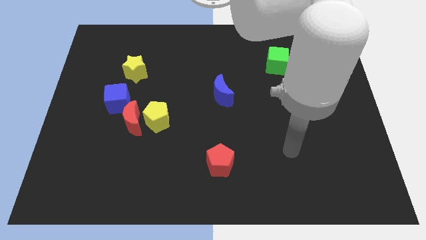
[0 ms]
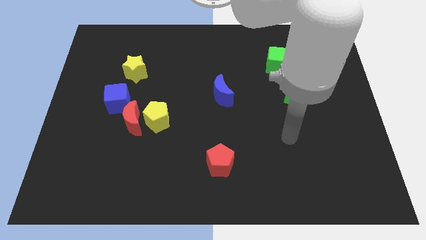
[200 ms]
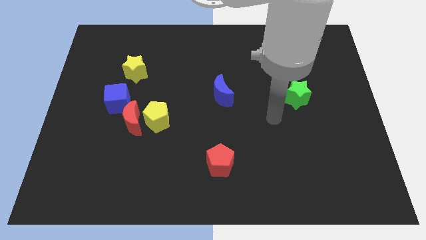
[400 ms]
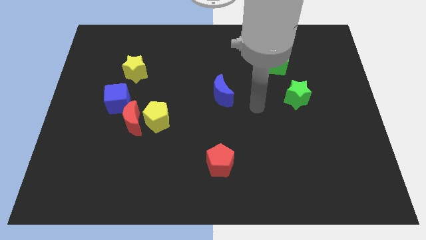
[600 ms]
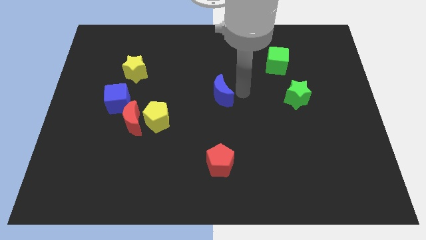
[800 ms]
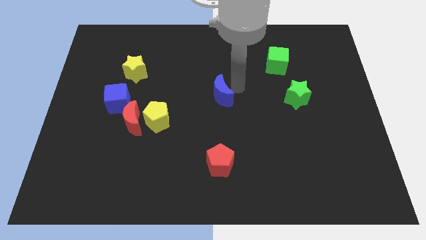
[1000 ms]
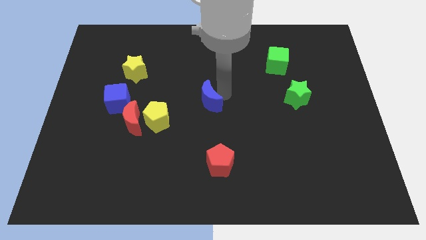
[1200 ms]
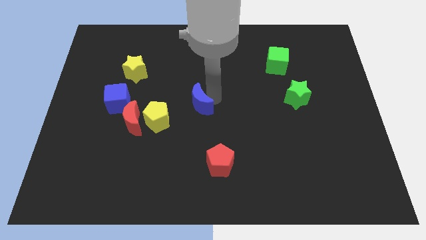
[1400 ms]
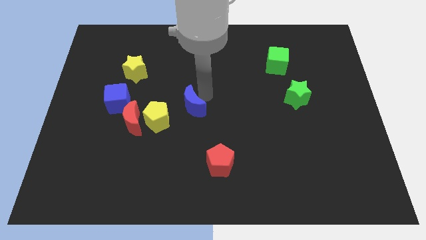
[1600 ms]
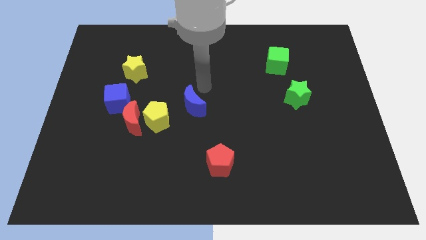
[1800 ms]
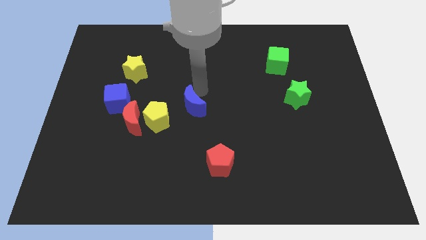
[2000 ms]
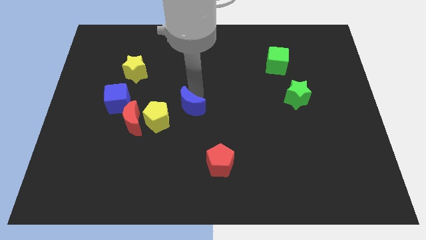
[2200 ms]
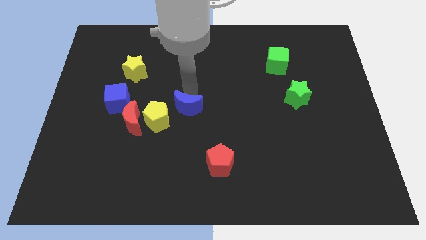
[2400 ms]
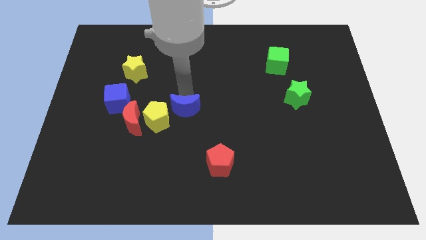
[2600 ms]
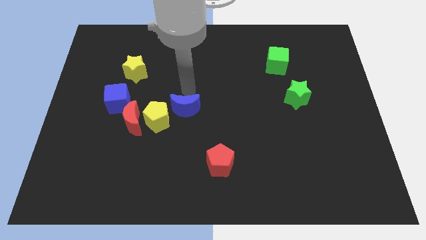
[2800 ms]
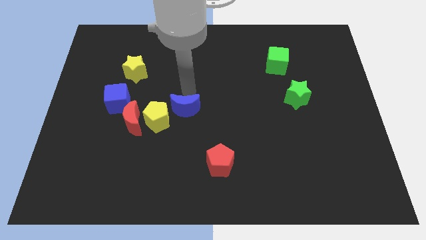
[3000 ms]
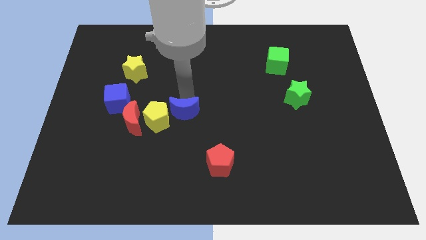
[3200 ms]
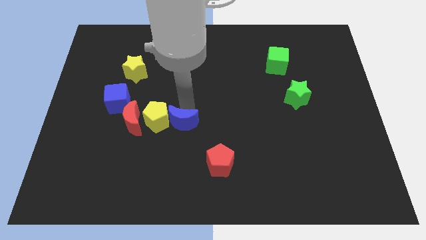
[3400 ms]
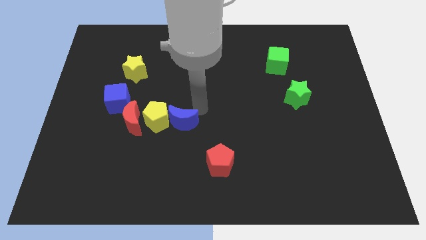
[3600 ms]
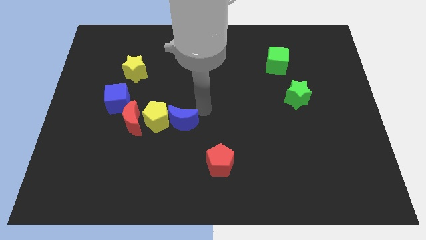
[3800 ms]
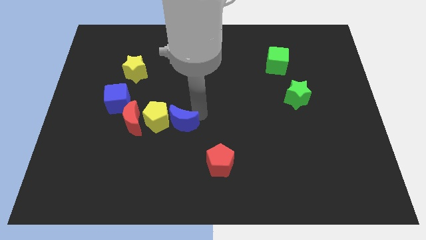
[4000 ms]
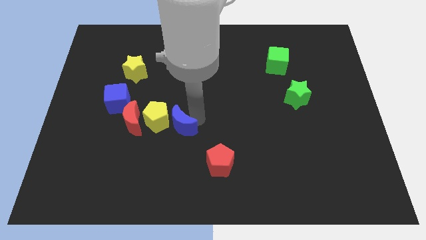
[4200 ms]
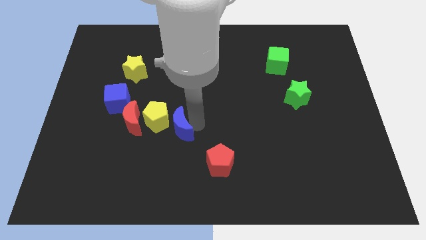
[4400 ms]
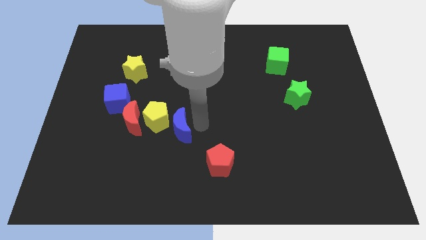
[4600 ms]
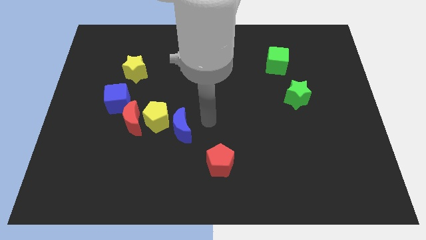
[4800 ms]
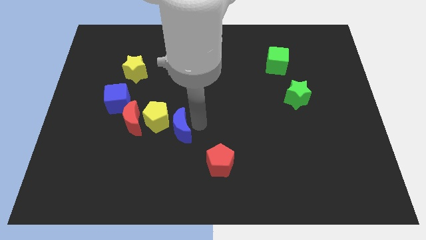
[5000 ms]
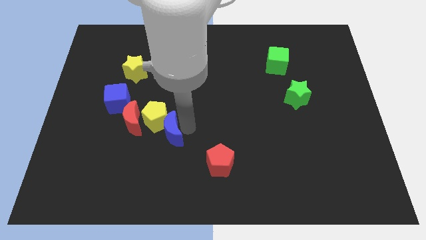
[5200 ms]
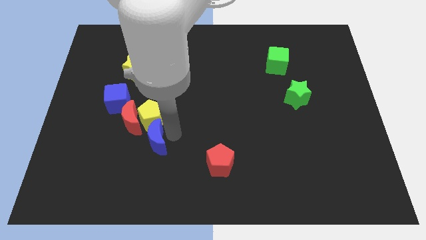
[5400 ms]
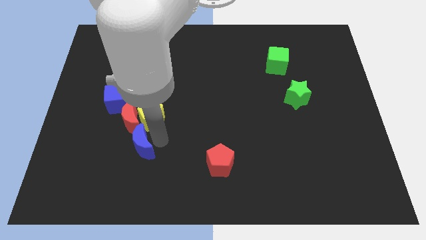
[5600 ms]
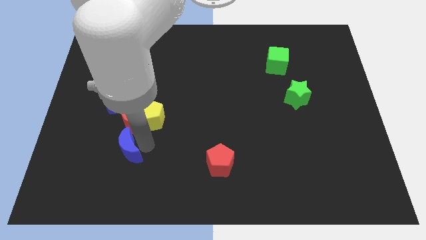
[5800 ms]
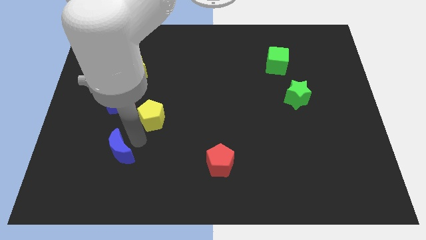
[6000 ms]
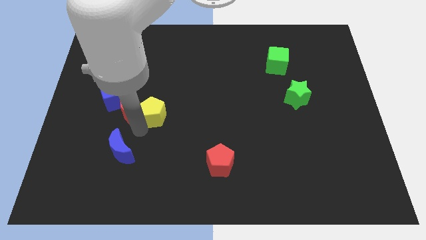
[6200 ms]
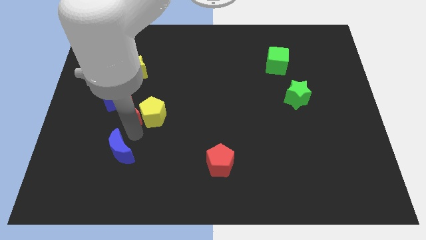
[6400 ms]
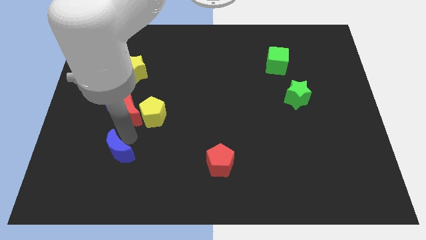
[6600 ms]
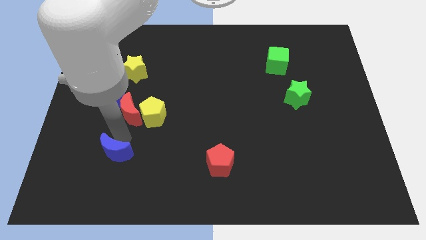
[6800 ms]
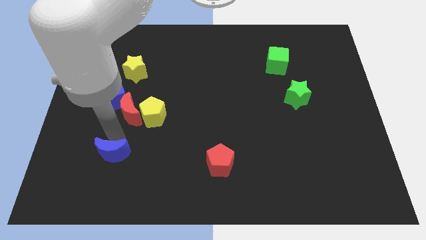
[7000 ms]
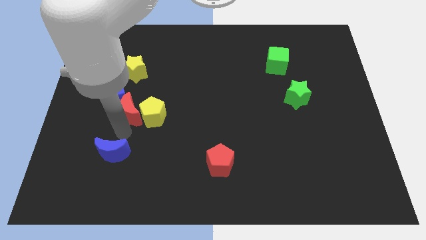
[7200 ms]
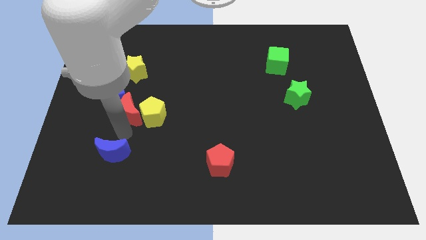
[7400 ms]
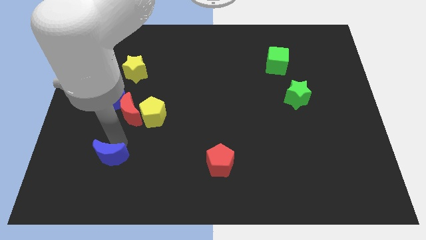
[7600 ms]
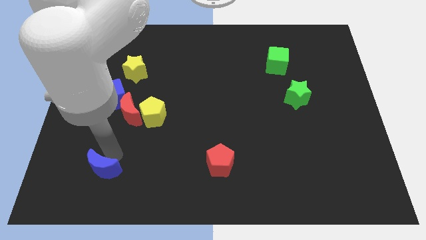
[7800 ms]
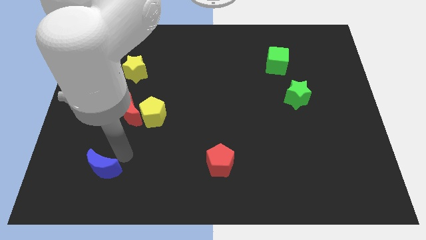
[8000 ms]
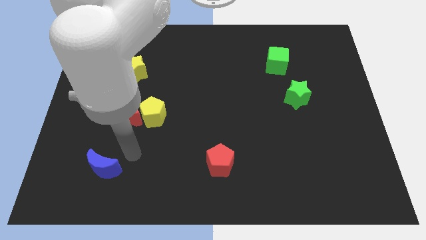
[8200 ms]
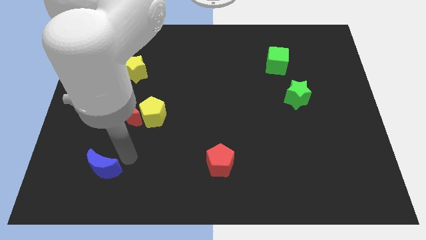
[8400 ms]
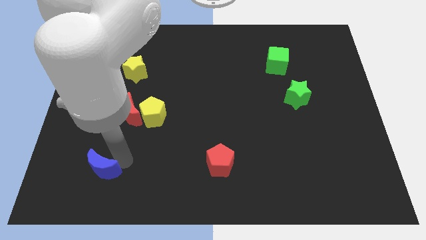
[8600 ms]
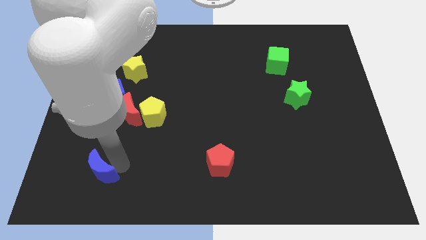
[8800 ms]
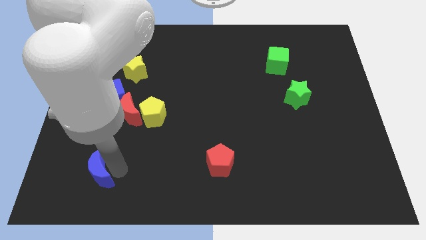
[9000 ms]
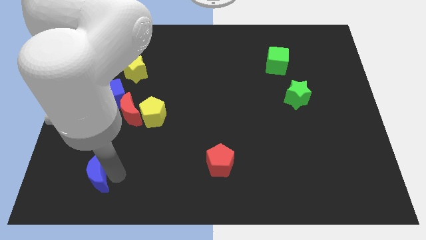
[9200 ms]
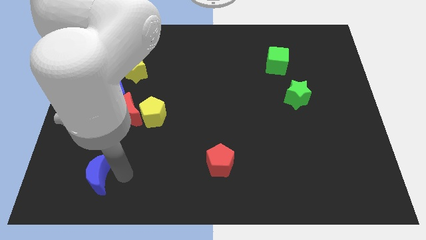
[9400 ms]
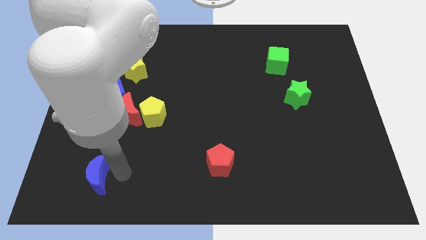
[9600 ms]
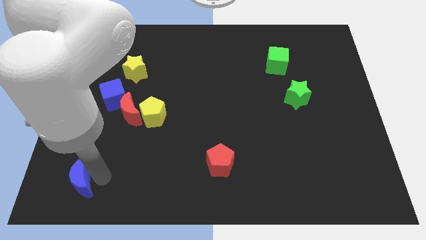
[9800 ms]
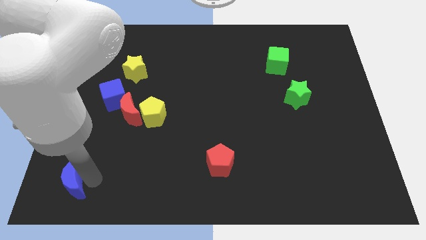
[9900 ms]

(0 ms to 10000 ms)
move the blue moon to the bottom left of the board

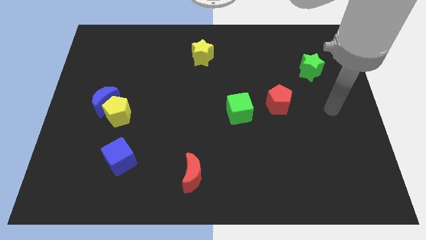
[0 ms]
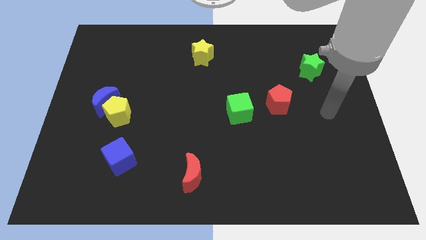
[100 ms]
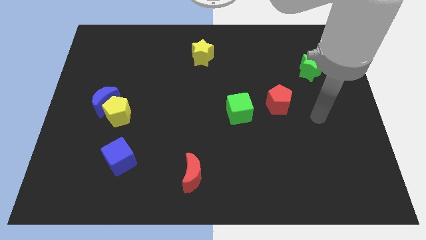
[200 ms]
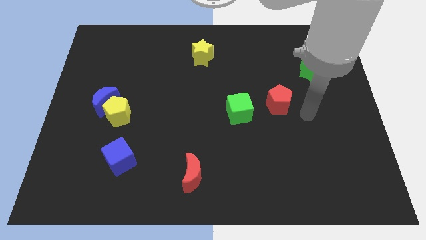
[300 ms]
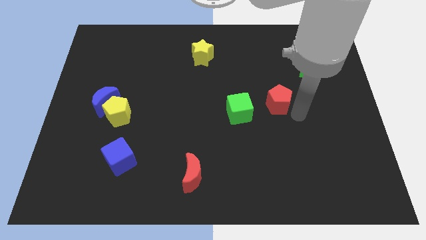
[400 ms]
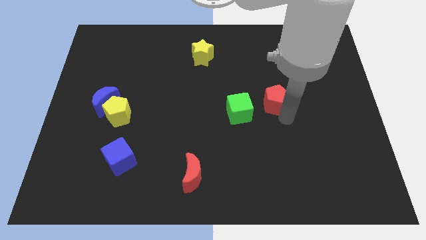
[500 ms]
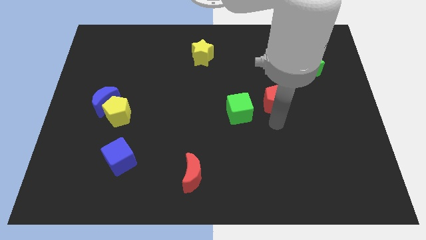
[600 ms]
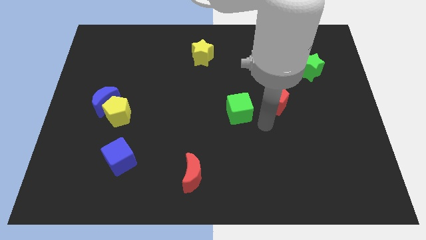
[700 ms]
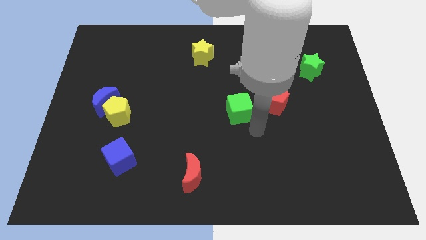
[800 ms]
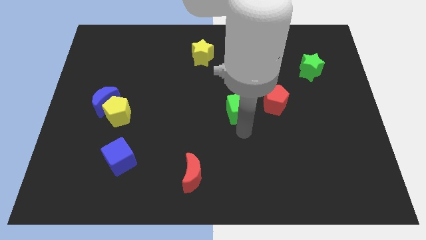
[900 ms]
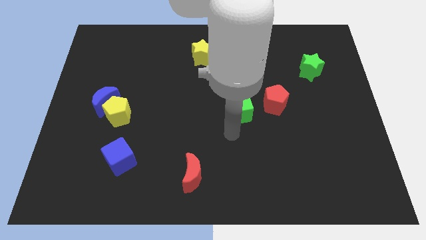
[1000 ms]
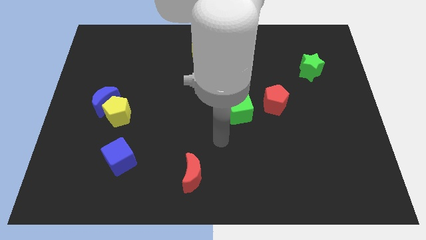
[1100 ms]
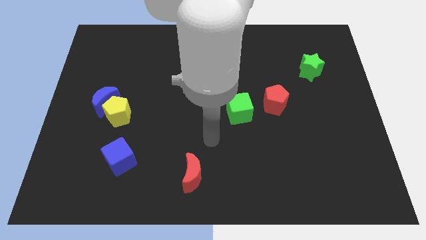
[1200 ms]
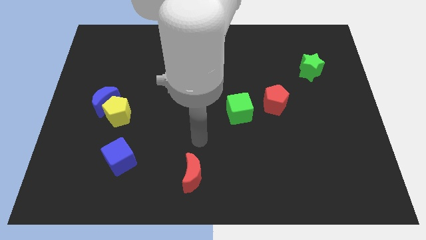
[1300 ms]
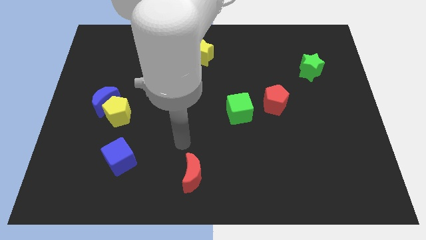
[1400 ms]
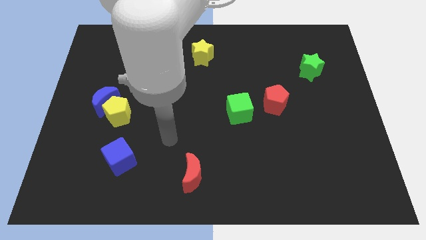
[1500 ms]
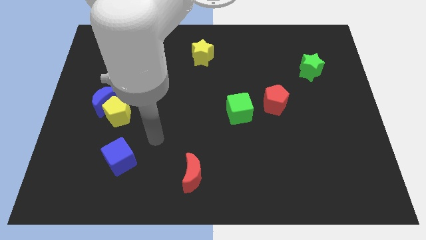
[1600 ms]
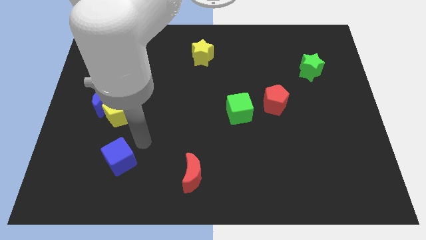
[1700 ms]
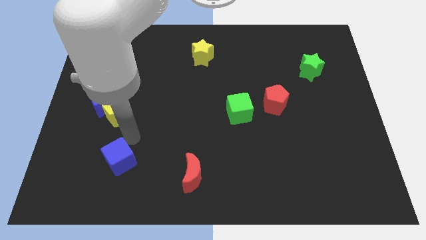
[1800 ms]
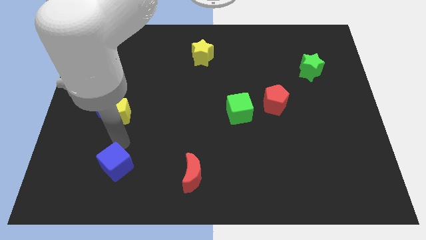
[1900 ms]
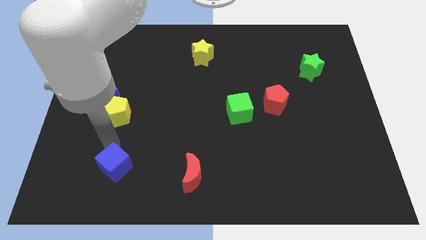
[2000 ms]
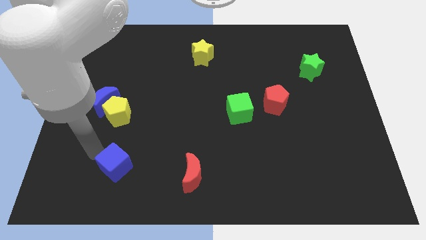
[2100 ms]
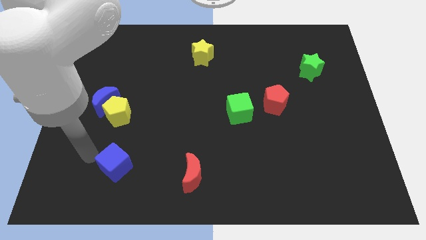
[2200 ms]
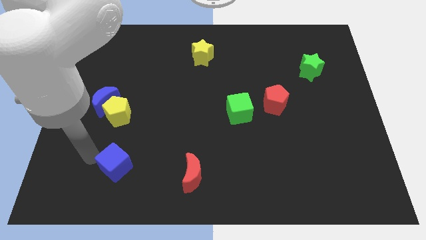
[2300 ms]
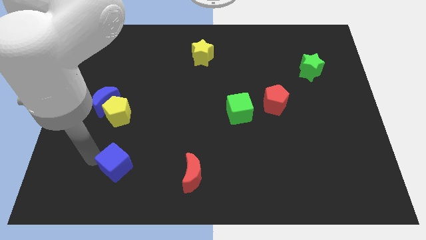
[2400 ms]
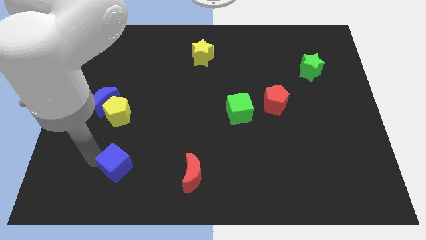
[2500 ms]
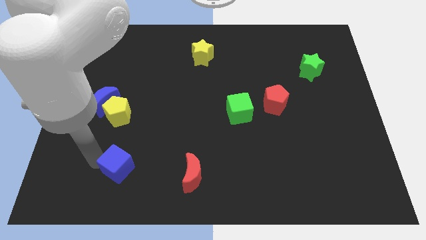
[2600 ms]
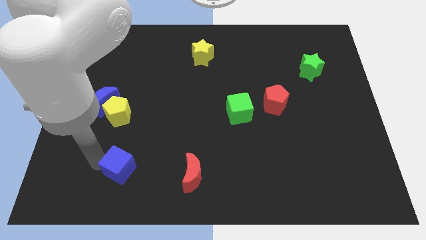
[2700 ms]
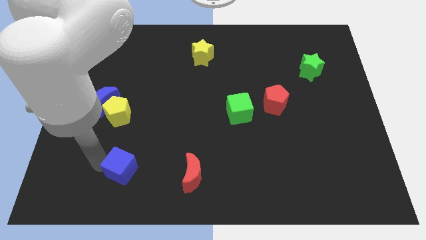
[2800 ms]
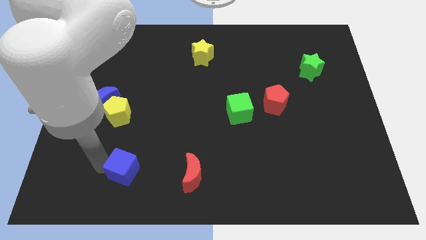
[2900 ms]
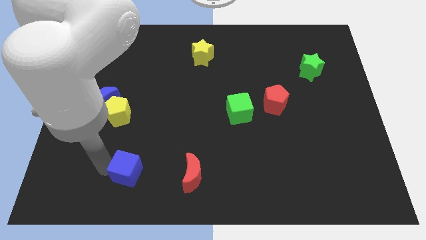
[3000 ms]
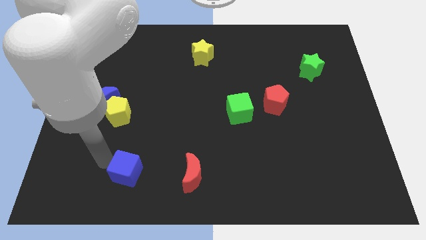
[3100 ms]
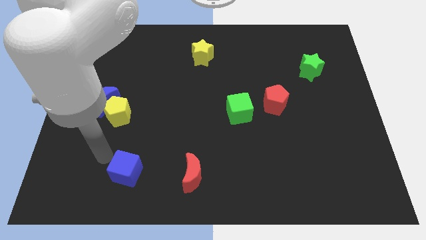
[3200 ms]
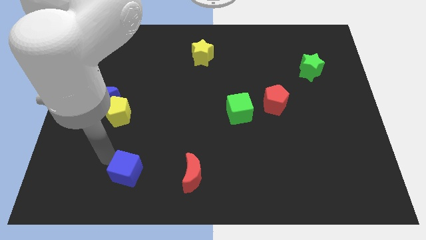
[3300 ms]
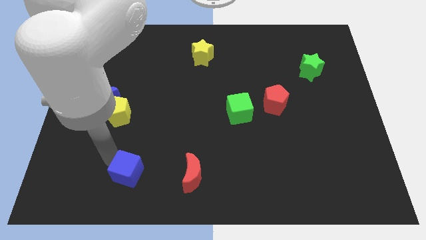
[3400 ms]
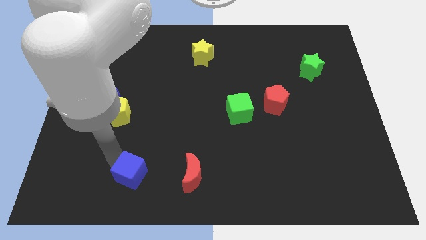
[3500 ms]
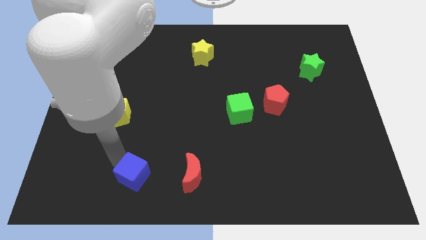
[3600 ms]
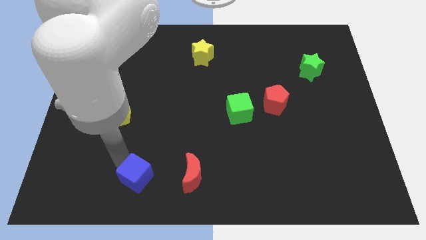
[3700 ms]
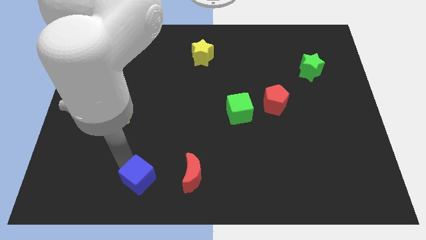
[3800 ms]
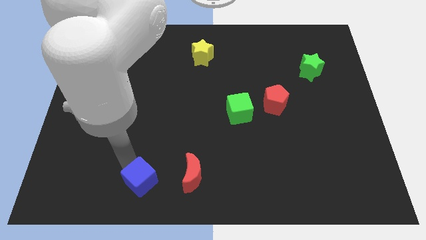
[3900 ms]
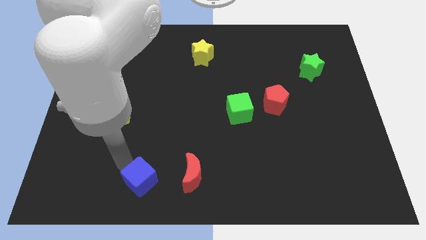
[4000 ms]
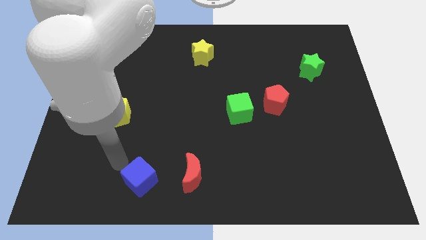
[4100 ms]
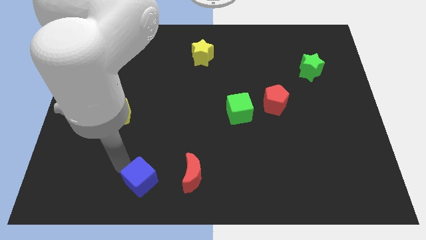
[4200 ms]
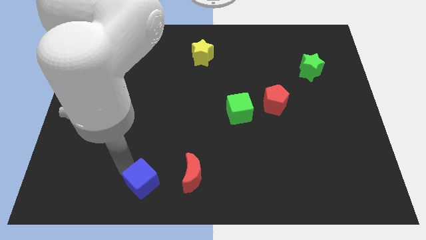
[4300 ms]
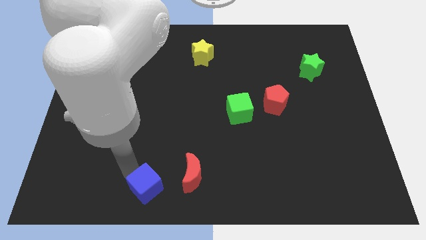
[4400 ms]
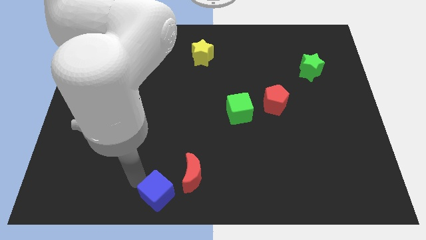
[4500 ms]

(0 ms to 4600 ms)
slide the blue cube to the bottom side
